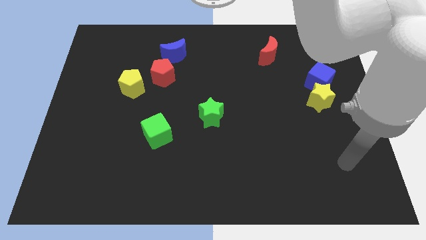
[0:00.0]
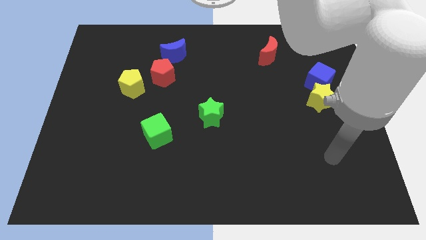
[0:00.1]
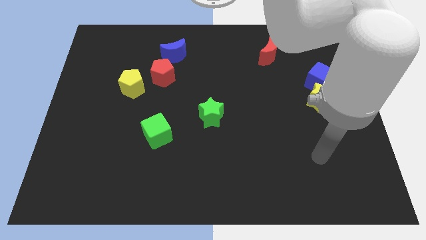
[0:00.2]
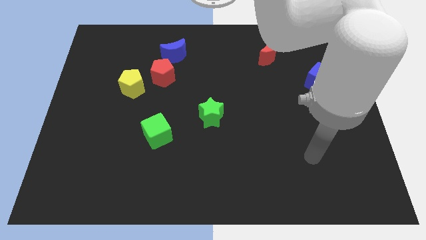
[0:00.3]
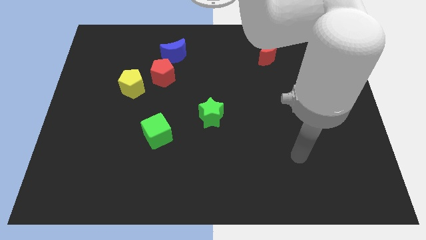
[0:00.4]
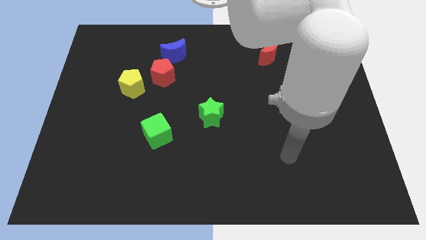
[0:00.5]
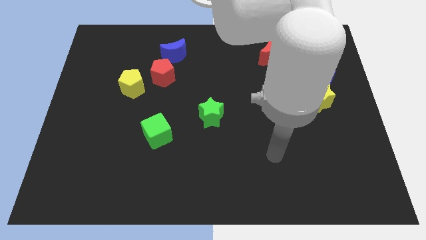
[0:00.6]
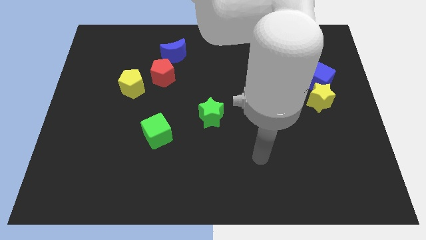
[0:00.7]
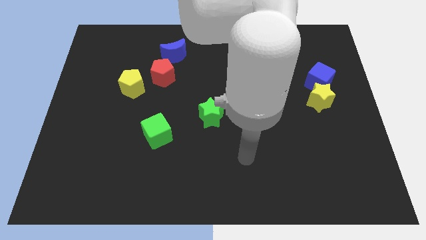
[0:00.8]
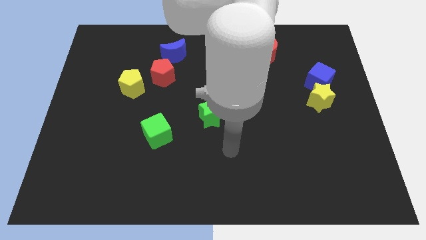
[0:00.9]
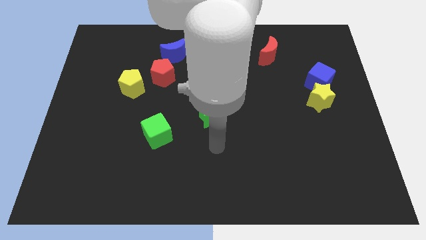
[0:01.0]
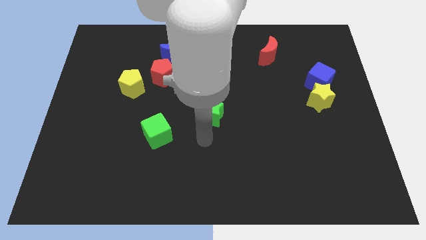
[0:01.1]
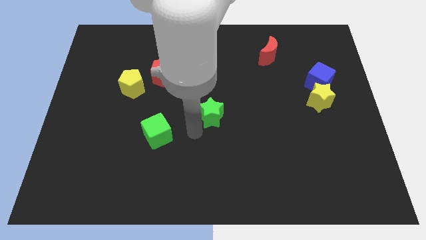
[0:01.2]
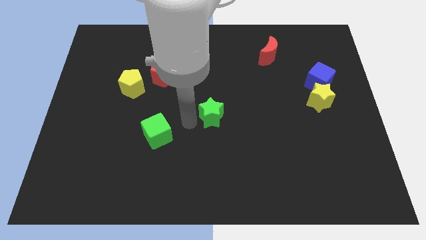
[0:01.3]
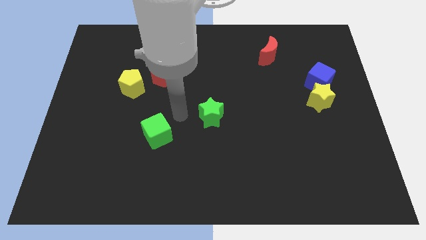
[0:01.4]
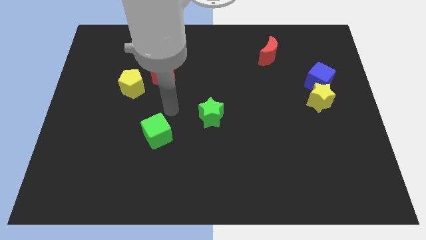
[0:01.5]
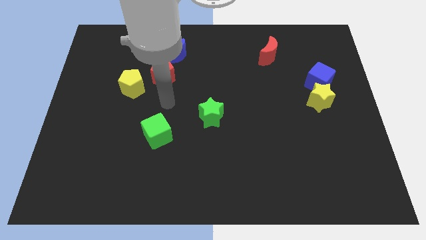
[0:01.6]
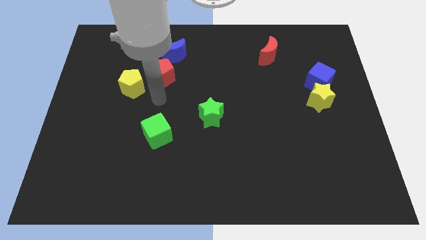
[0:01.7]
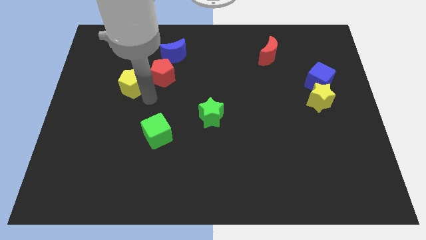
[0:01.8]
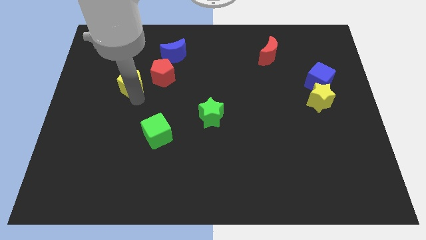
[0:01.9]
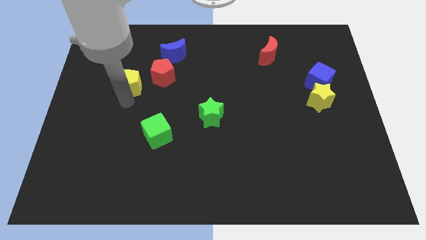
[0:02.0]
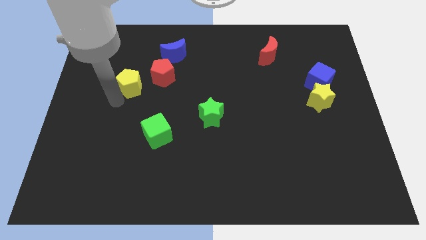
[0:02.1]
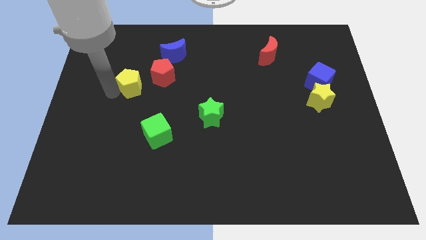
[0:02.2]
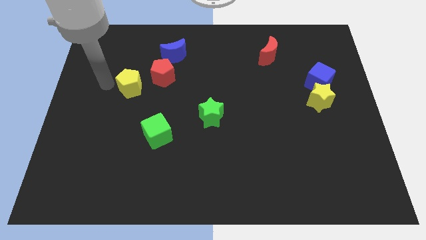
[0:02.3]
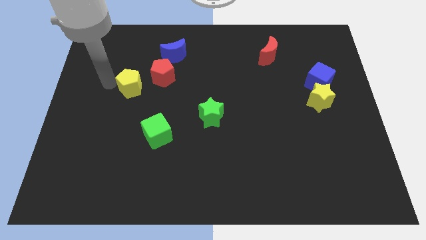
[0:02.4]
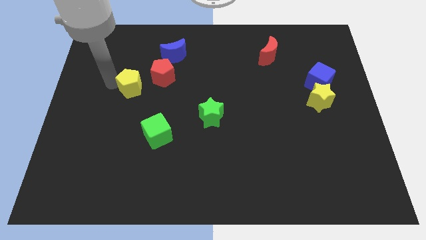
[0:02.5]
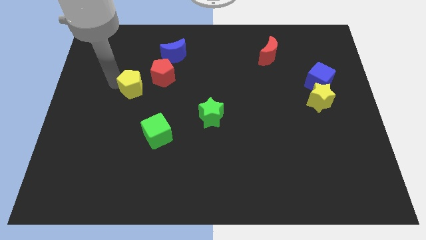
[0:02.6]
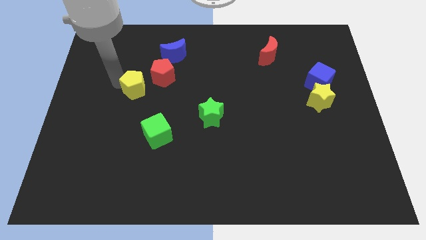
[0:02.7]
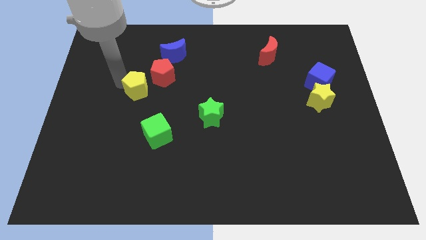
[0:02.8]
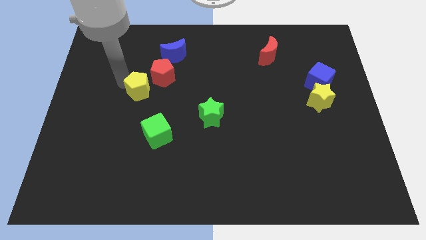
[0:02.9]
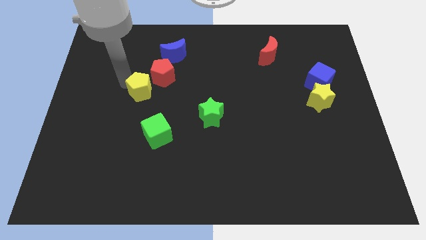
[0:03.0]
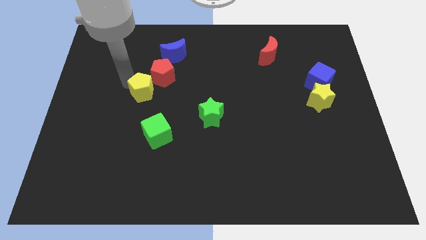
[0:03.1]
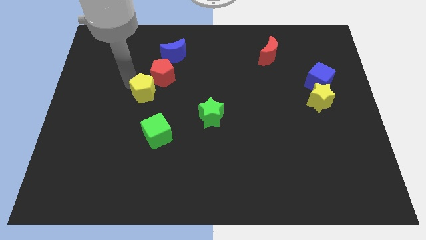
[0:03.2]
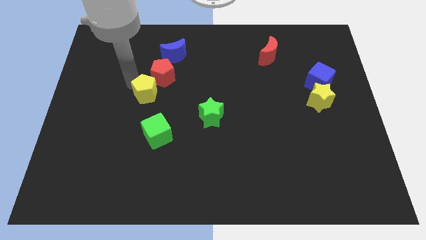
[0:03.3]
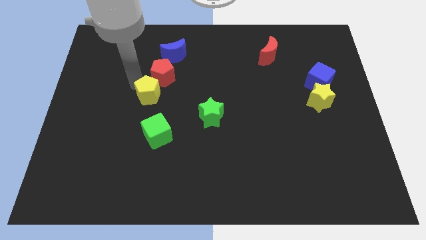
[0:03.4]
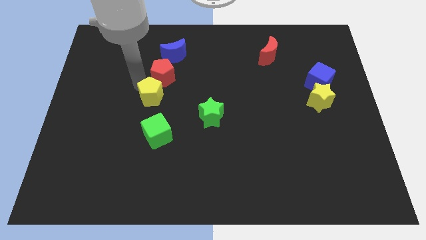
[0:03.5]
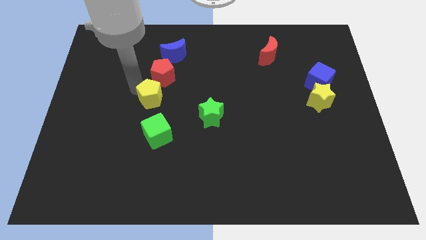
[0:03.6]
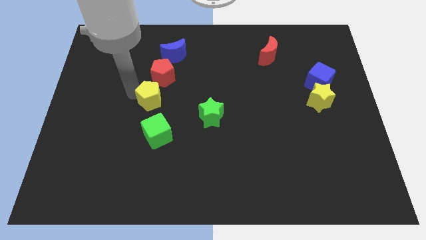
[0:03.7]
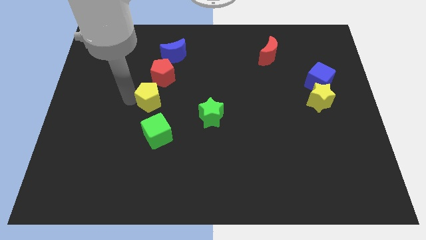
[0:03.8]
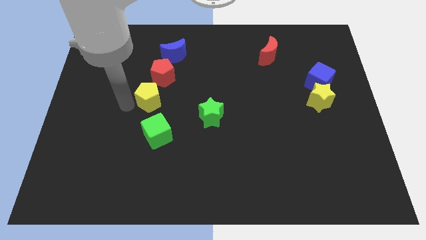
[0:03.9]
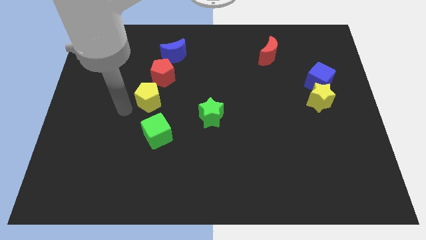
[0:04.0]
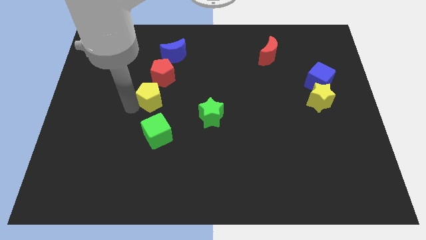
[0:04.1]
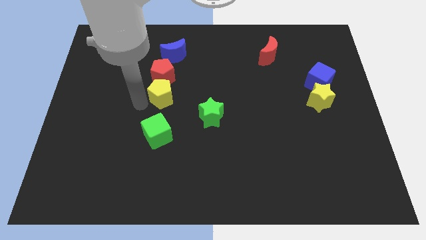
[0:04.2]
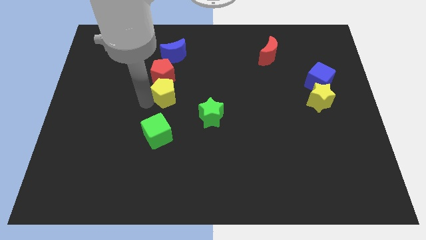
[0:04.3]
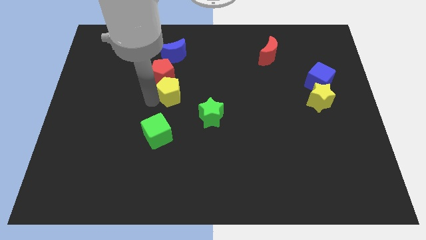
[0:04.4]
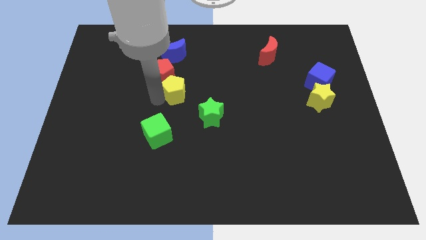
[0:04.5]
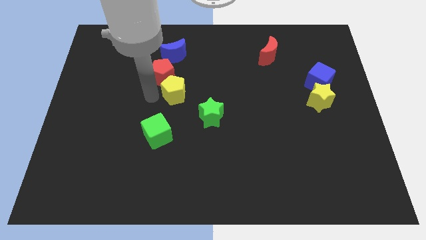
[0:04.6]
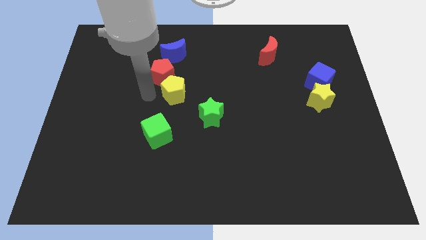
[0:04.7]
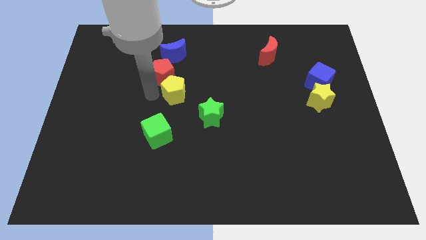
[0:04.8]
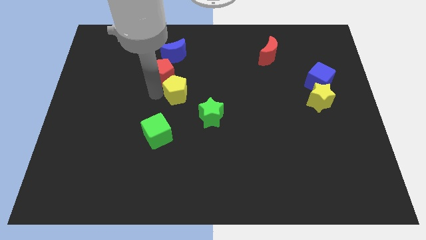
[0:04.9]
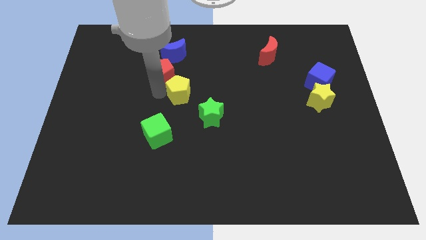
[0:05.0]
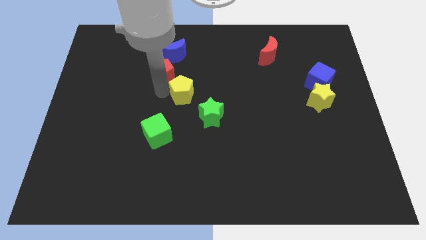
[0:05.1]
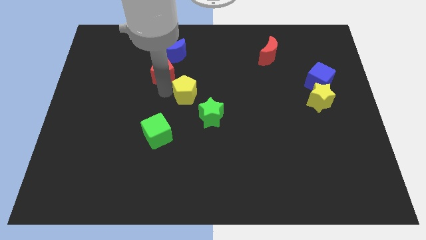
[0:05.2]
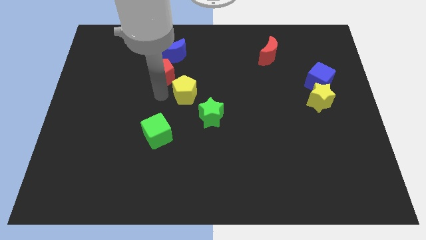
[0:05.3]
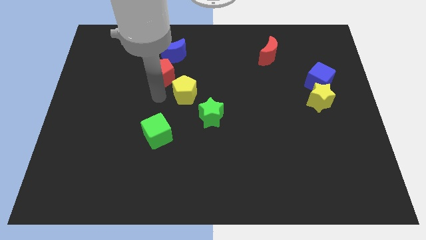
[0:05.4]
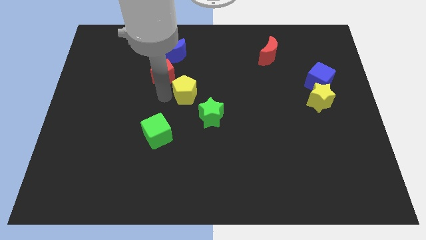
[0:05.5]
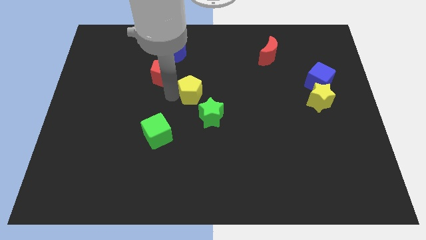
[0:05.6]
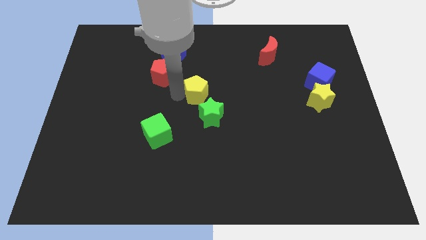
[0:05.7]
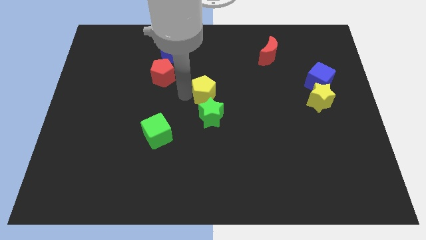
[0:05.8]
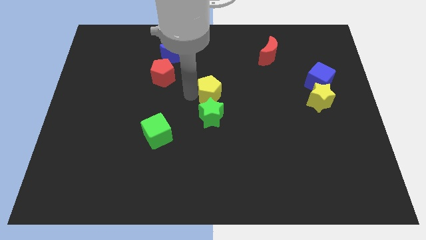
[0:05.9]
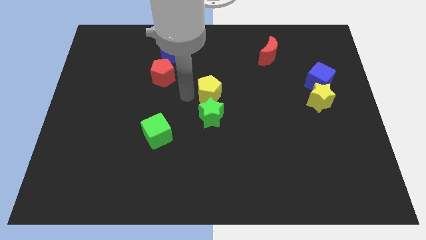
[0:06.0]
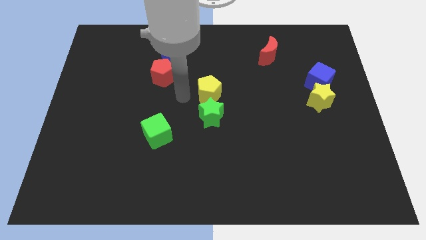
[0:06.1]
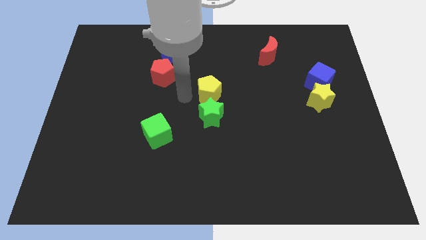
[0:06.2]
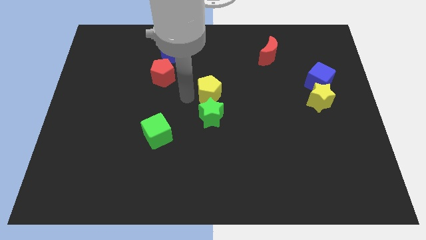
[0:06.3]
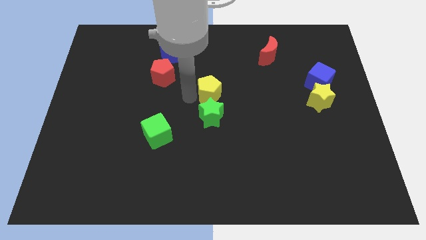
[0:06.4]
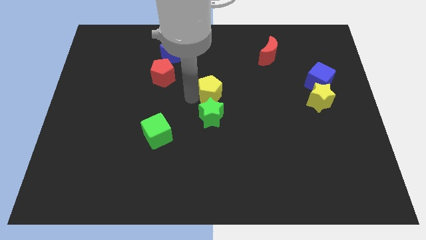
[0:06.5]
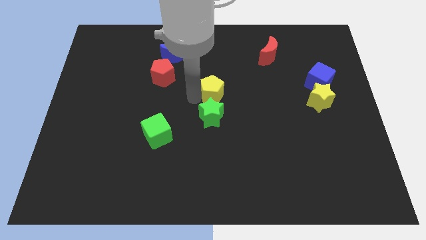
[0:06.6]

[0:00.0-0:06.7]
put the yellow pentagon diagonally up and to the right of the green star
